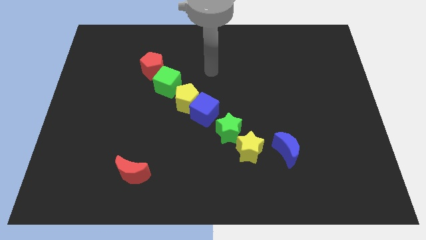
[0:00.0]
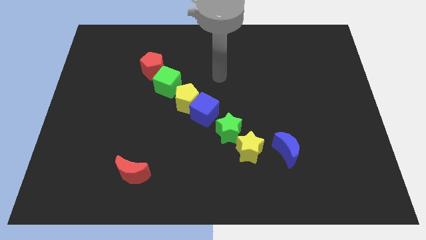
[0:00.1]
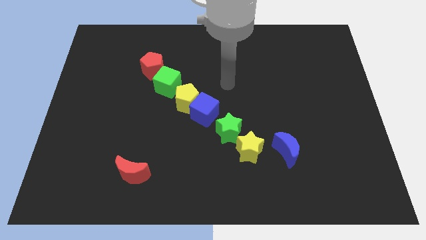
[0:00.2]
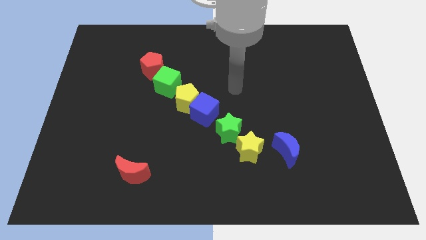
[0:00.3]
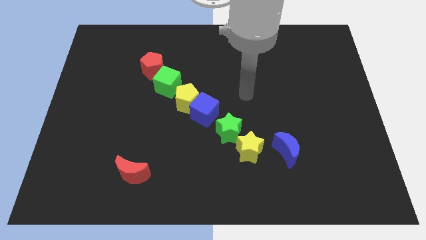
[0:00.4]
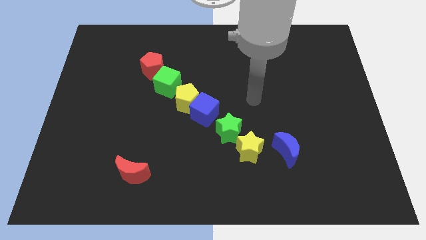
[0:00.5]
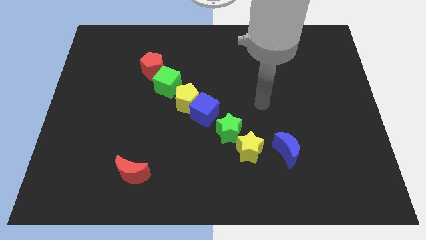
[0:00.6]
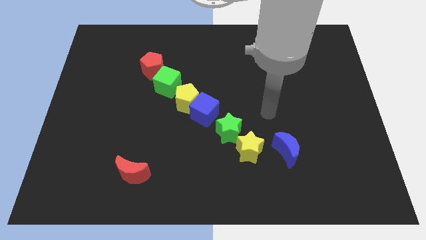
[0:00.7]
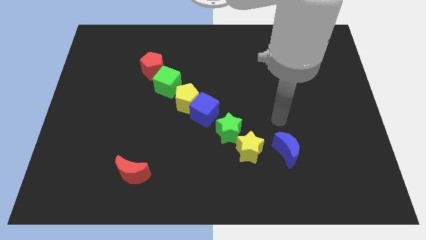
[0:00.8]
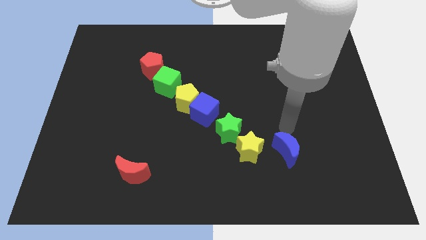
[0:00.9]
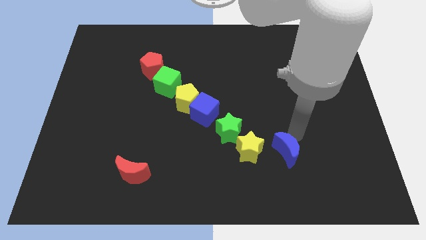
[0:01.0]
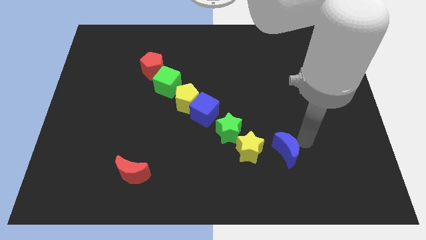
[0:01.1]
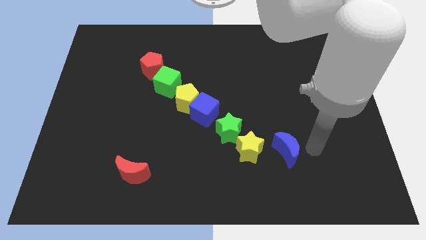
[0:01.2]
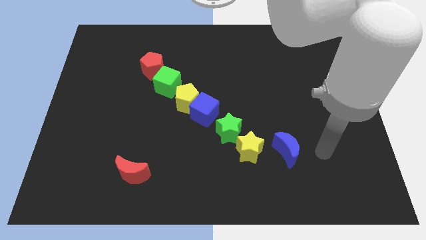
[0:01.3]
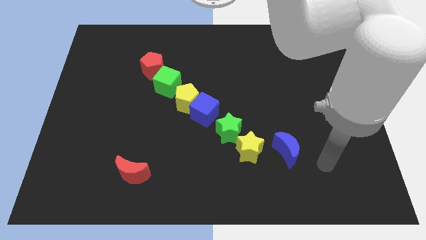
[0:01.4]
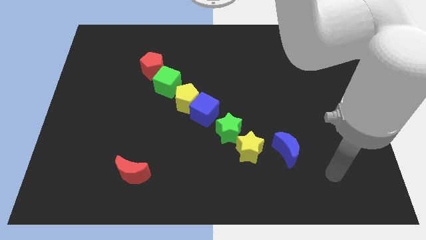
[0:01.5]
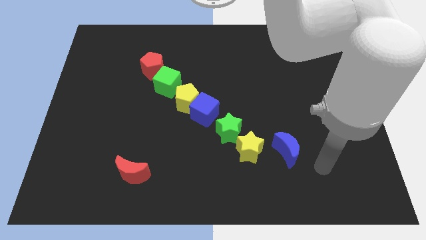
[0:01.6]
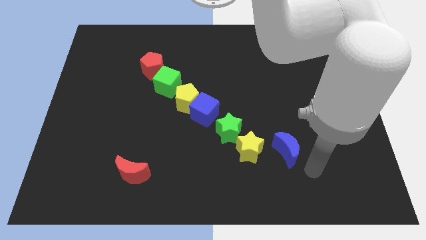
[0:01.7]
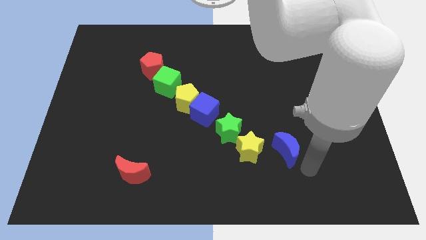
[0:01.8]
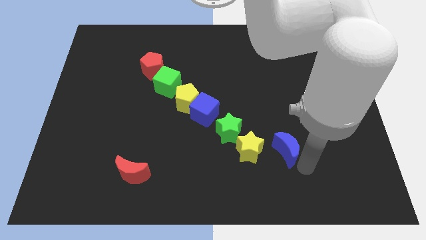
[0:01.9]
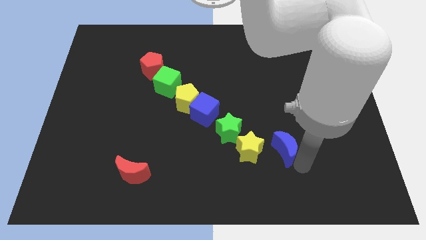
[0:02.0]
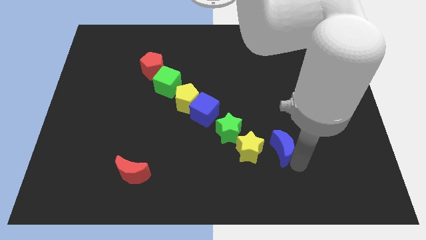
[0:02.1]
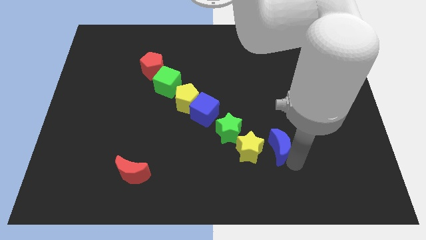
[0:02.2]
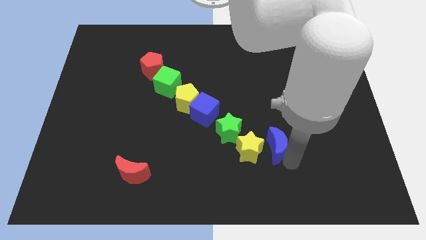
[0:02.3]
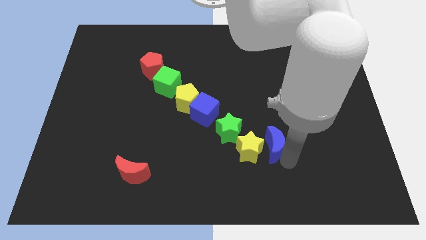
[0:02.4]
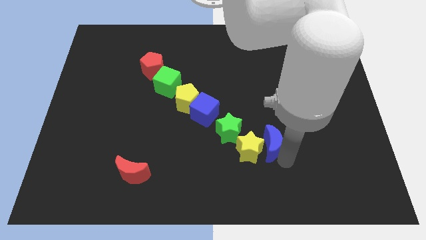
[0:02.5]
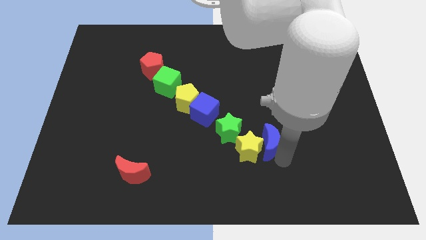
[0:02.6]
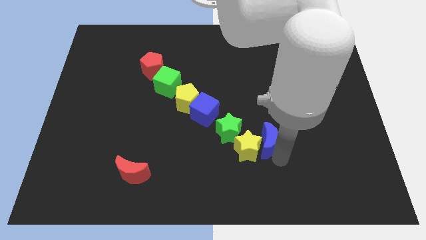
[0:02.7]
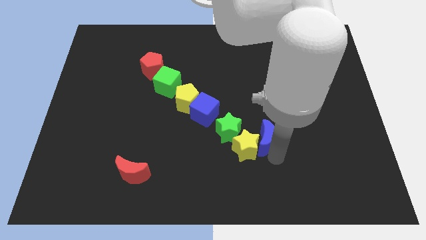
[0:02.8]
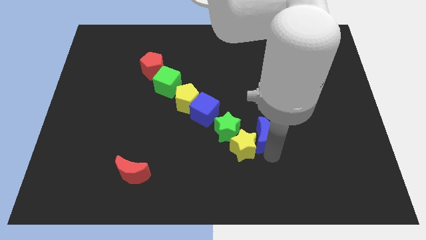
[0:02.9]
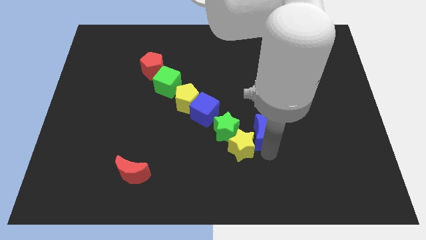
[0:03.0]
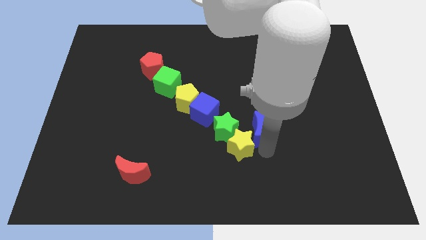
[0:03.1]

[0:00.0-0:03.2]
push the blue moon a bit diagonally up and to the left

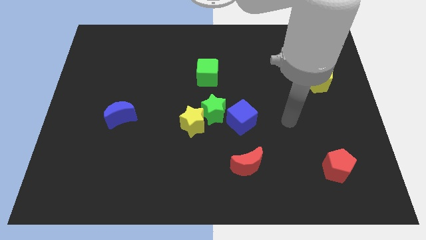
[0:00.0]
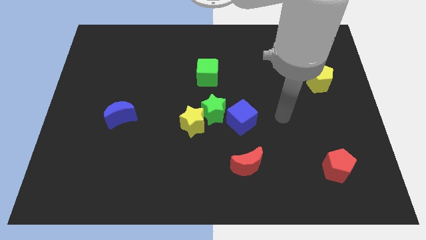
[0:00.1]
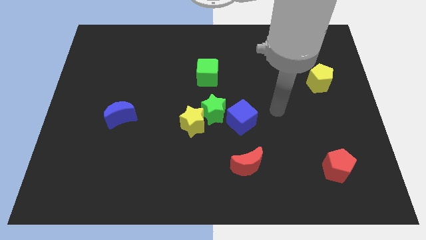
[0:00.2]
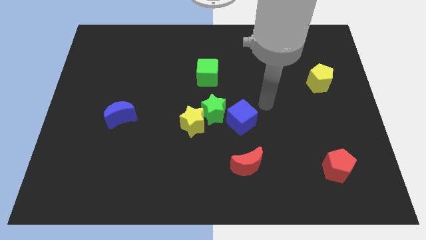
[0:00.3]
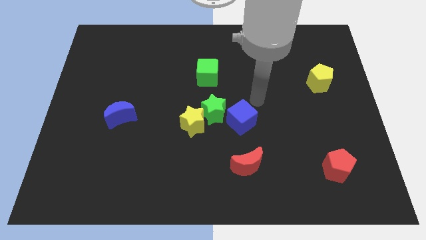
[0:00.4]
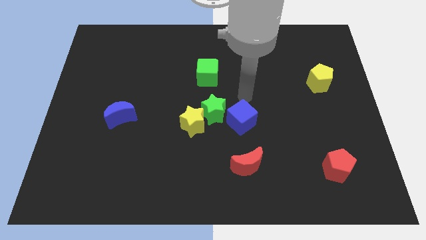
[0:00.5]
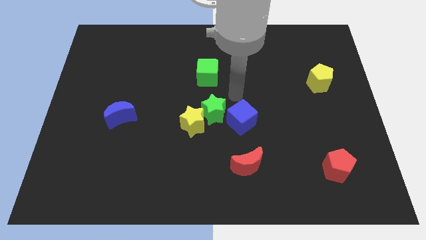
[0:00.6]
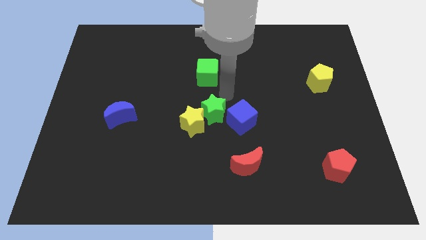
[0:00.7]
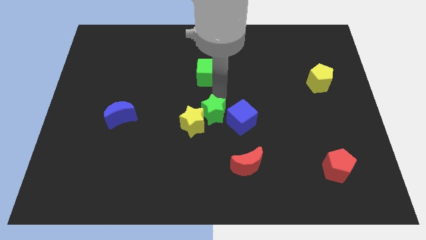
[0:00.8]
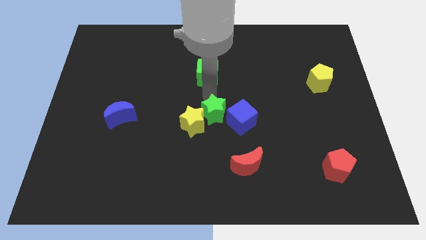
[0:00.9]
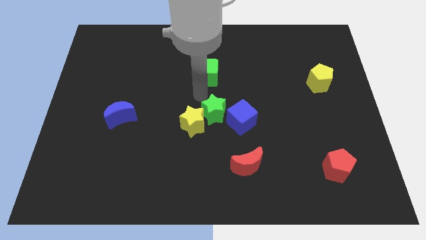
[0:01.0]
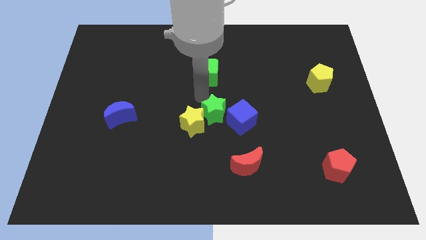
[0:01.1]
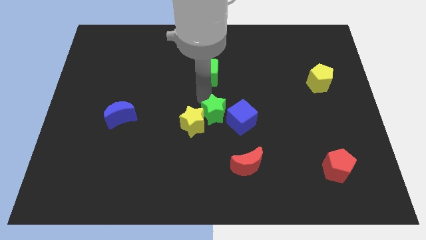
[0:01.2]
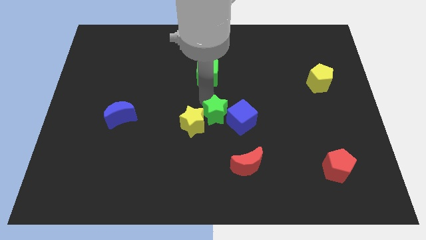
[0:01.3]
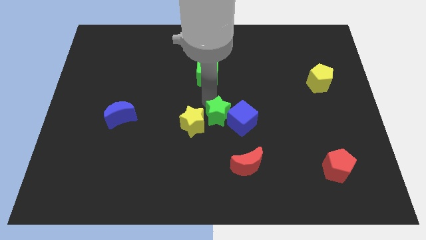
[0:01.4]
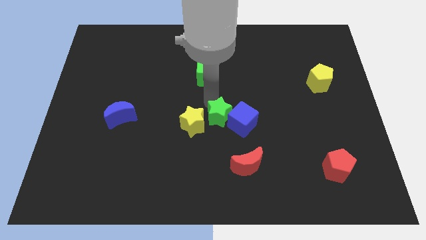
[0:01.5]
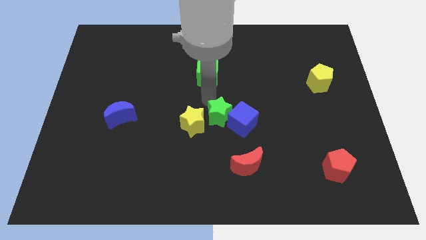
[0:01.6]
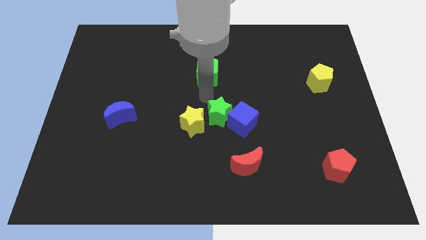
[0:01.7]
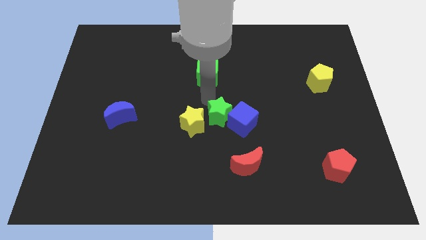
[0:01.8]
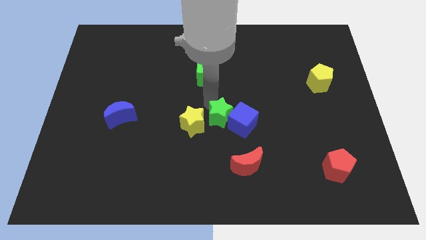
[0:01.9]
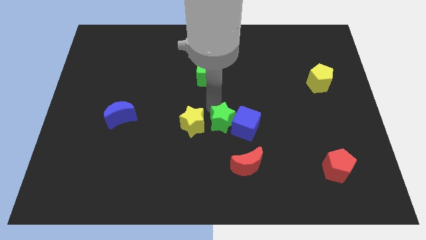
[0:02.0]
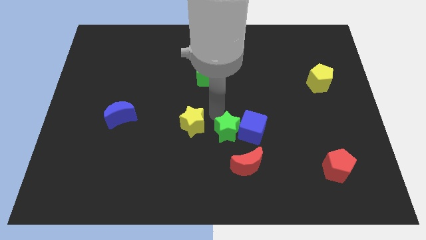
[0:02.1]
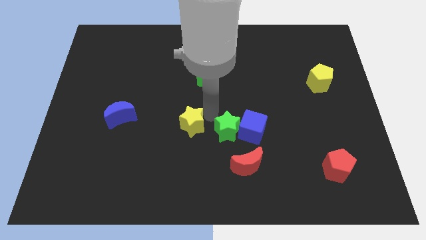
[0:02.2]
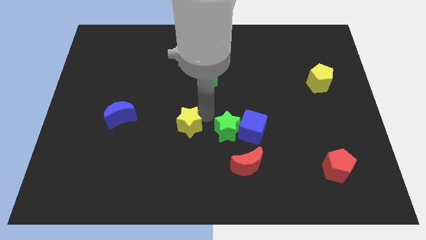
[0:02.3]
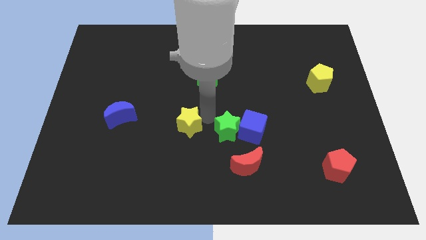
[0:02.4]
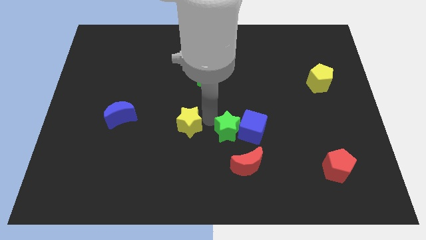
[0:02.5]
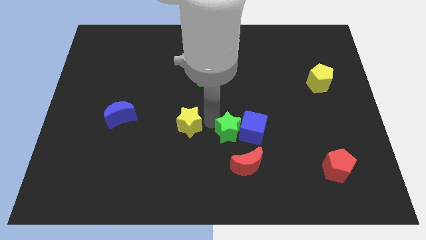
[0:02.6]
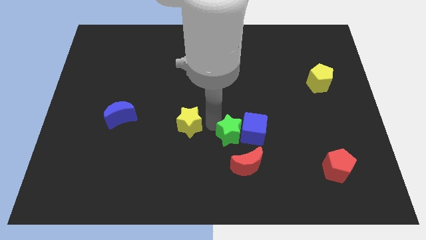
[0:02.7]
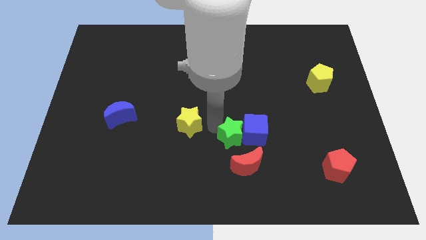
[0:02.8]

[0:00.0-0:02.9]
move the green star a little bit downwards and to the right diagonally

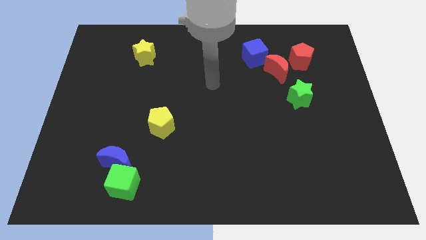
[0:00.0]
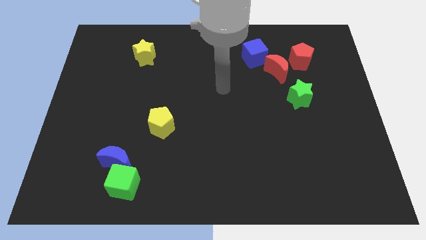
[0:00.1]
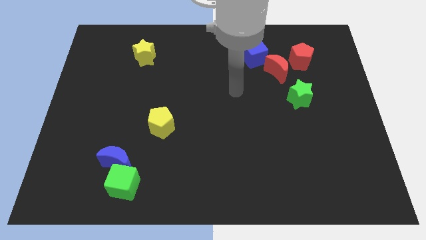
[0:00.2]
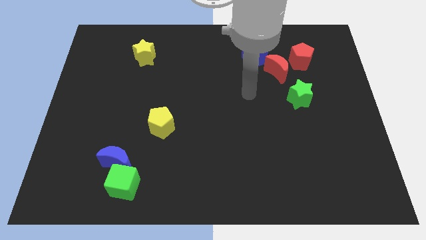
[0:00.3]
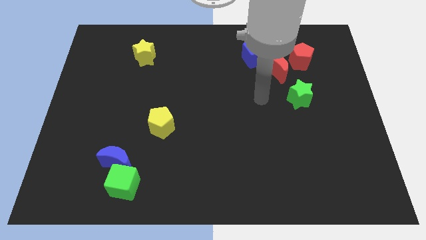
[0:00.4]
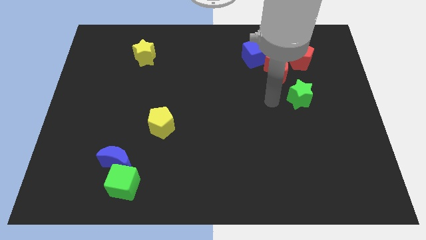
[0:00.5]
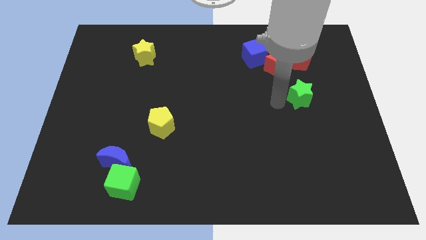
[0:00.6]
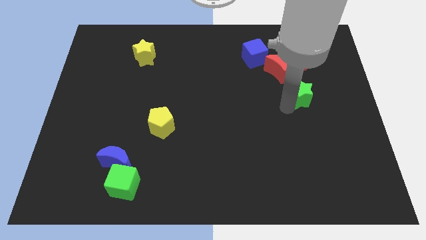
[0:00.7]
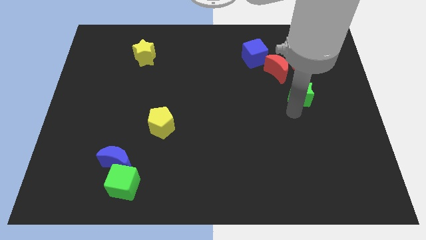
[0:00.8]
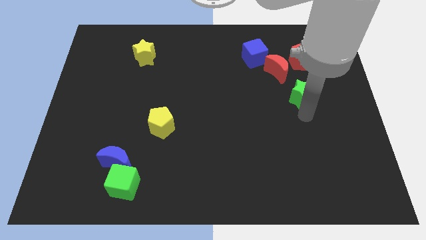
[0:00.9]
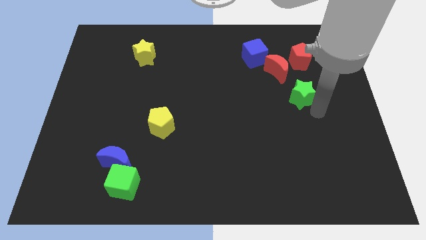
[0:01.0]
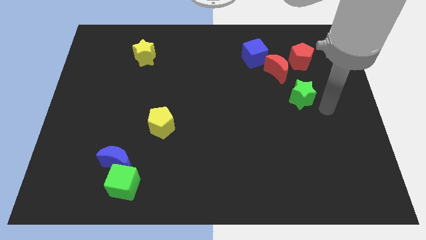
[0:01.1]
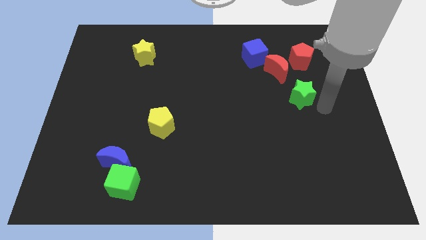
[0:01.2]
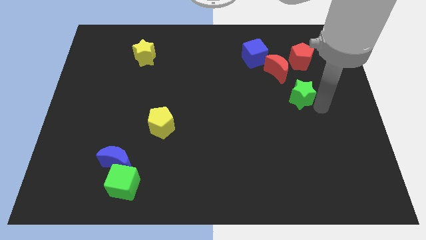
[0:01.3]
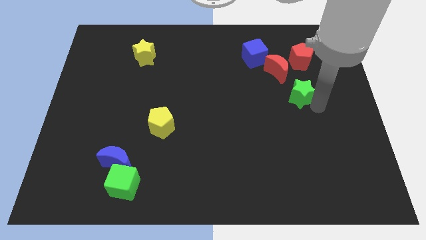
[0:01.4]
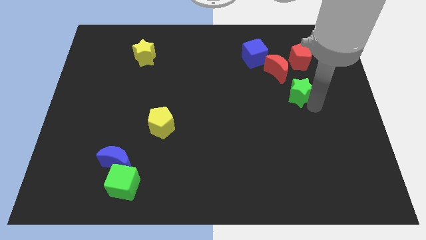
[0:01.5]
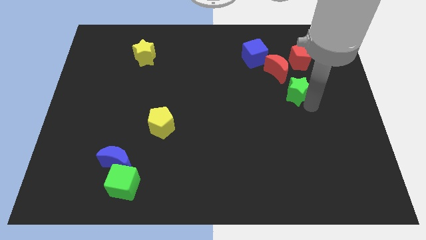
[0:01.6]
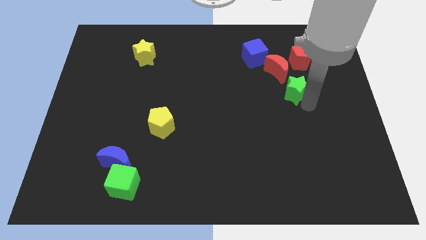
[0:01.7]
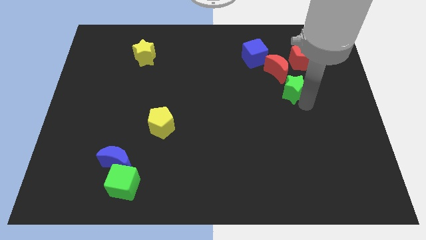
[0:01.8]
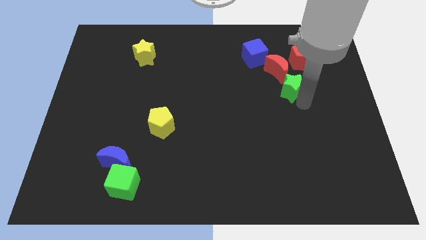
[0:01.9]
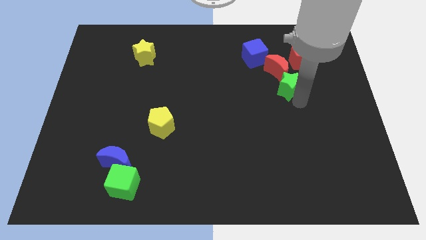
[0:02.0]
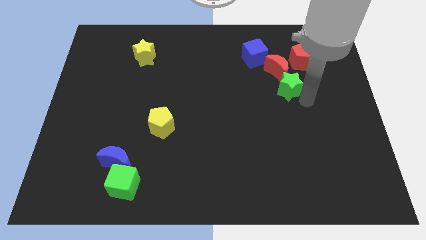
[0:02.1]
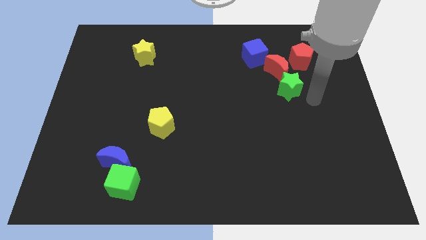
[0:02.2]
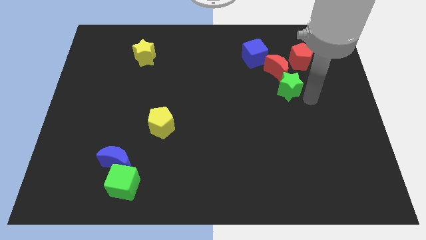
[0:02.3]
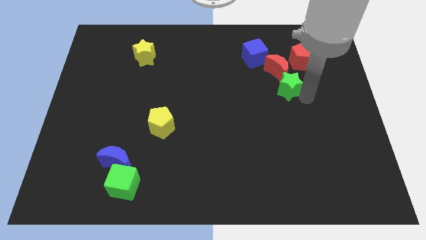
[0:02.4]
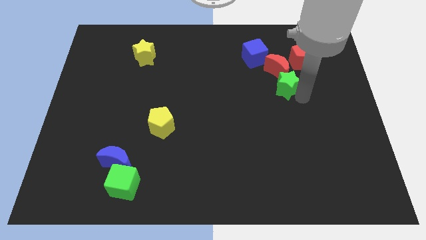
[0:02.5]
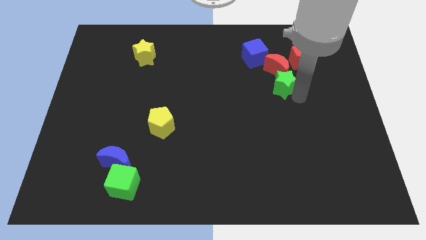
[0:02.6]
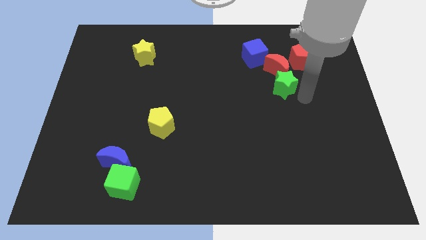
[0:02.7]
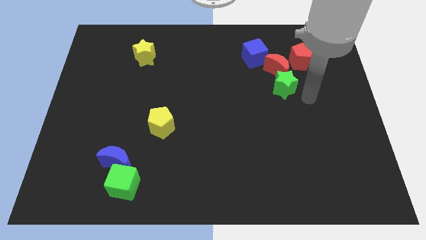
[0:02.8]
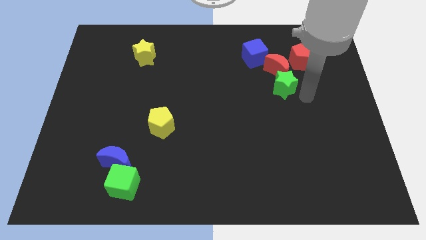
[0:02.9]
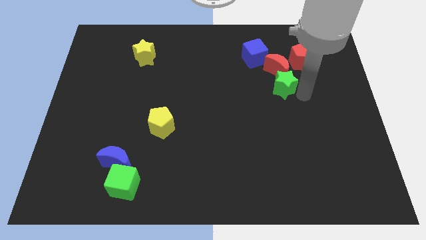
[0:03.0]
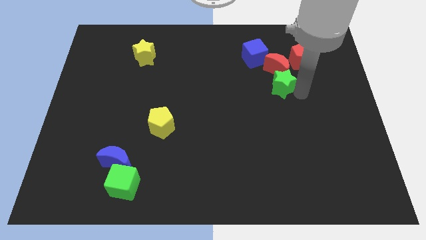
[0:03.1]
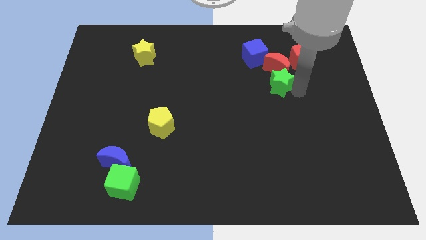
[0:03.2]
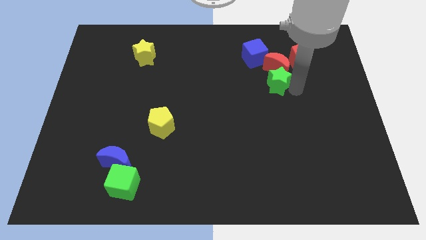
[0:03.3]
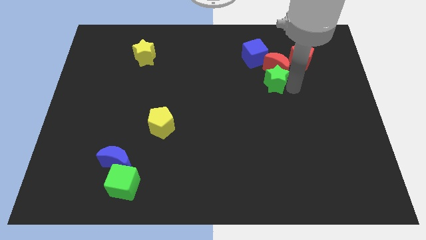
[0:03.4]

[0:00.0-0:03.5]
slightly push the green star upwards and to the left diagonally
